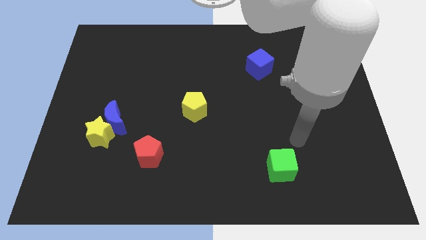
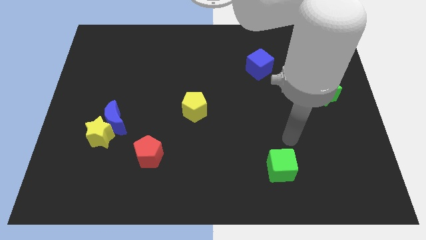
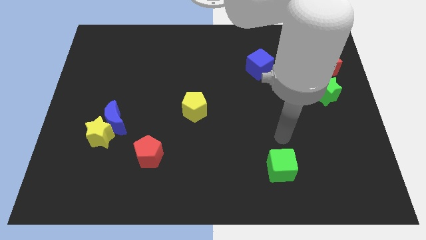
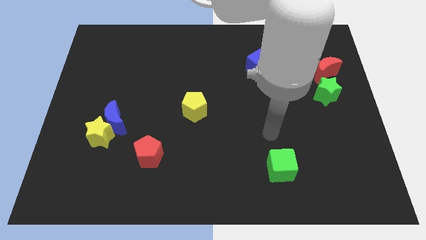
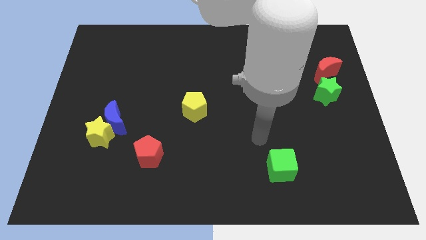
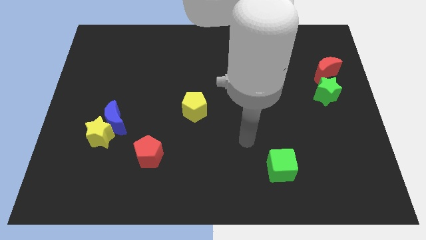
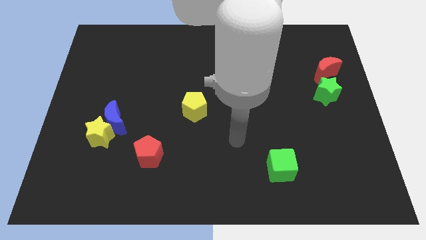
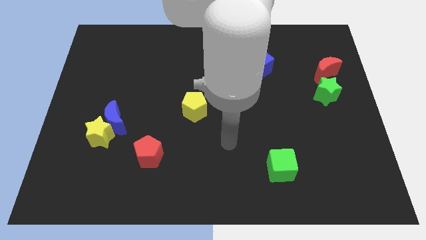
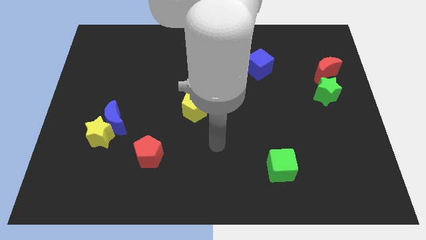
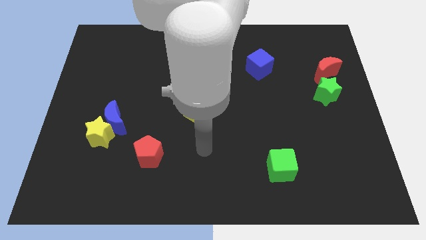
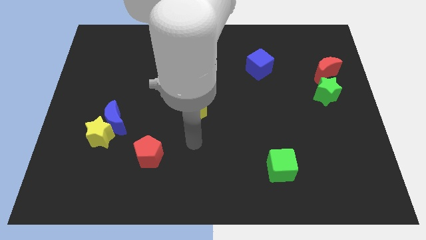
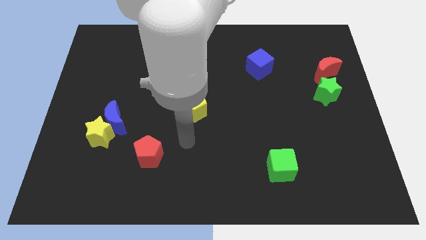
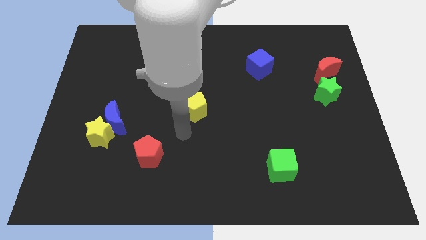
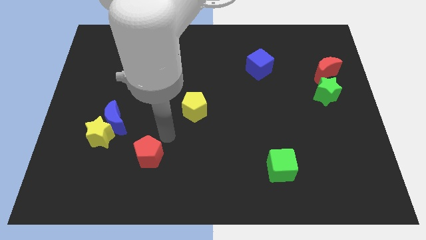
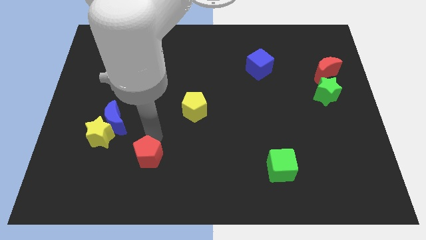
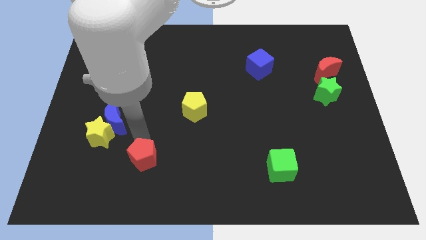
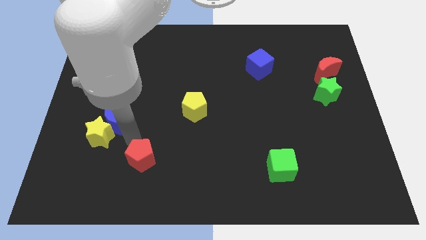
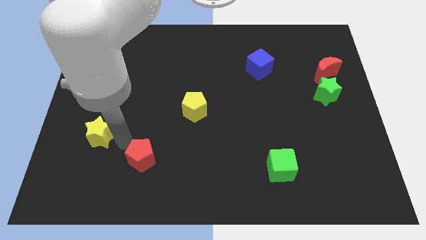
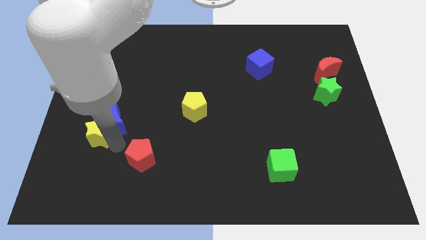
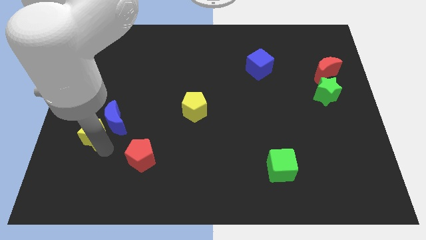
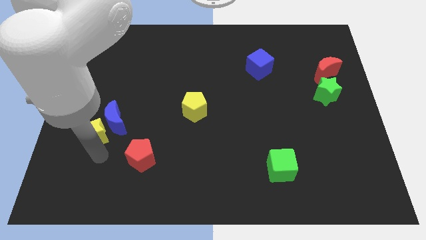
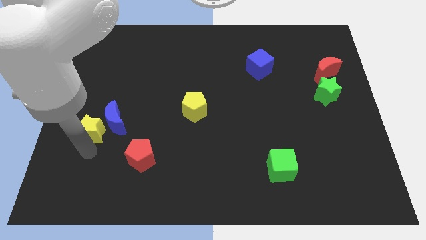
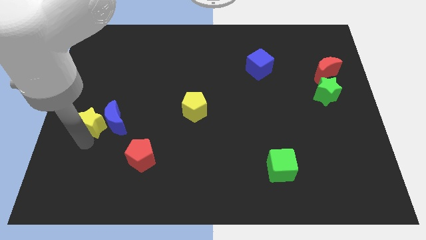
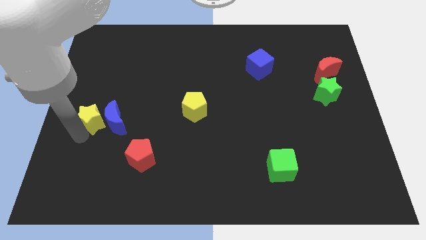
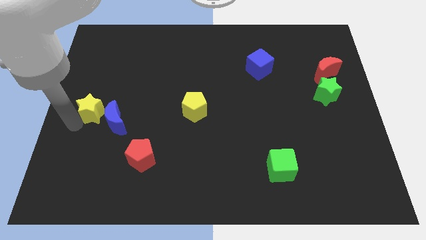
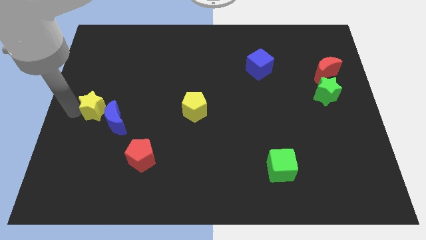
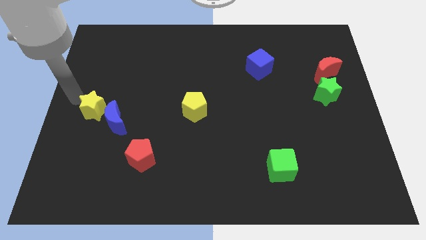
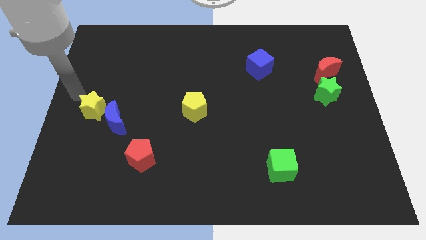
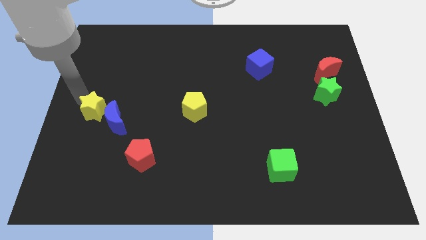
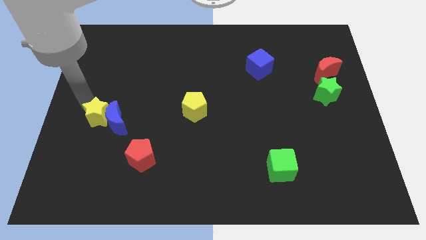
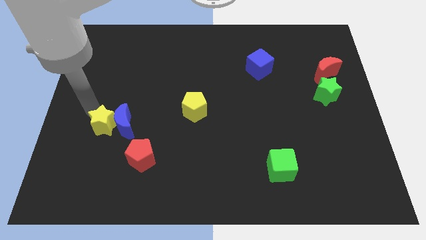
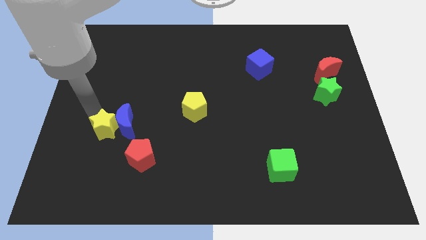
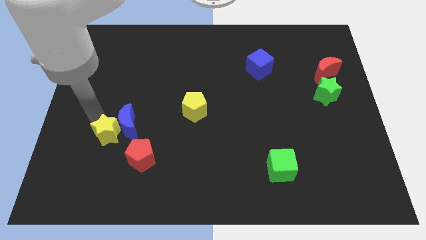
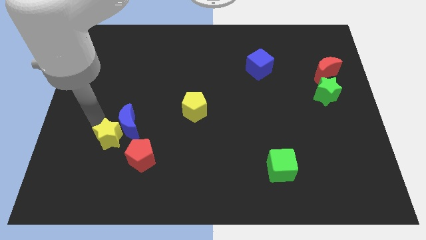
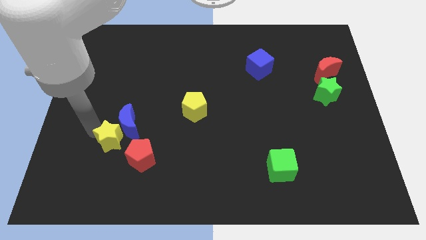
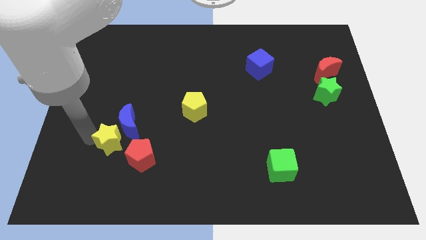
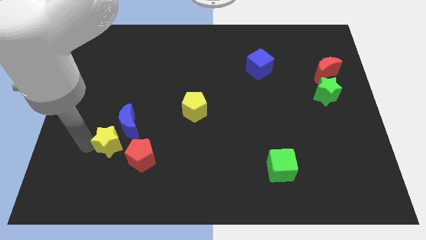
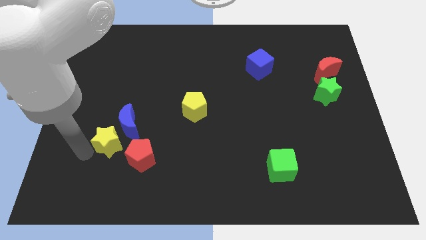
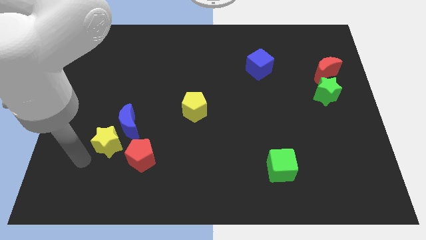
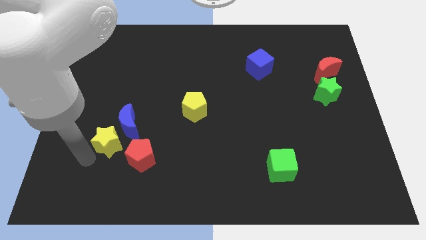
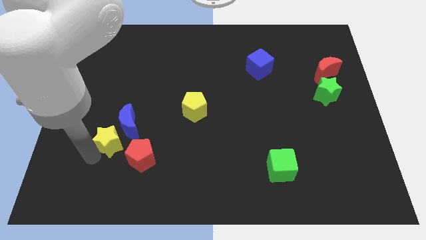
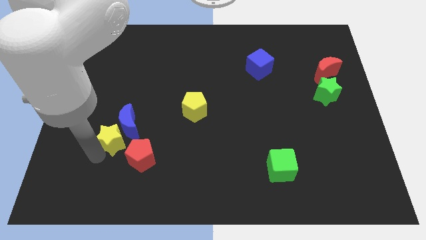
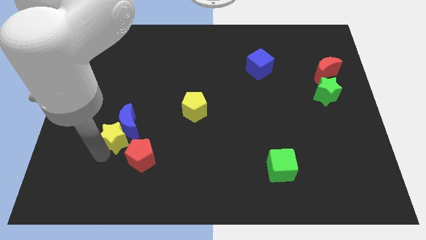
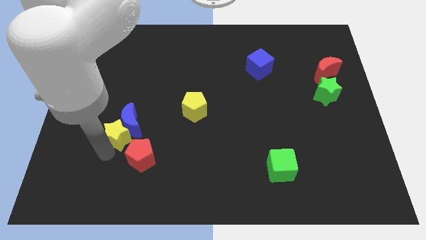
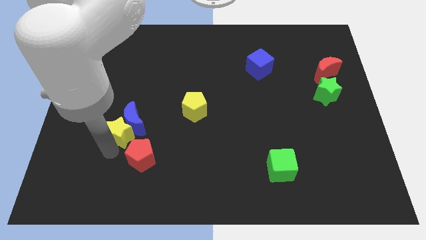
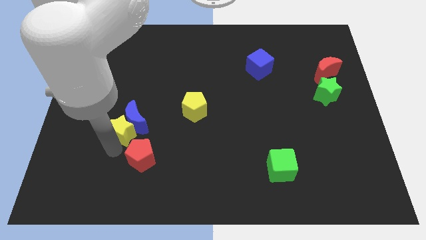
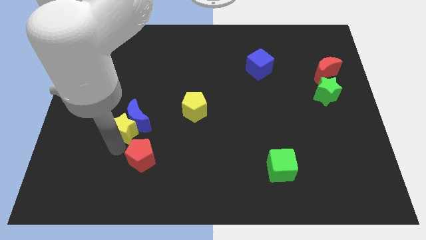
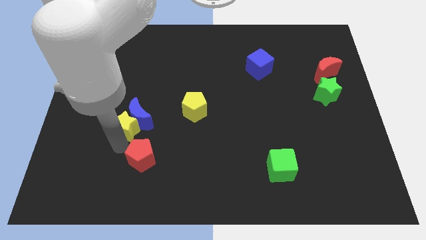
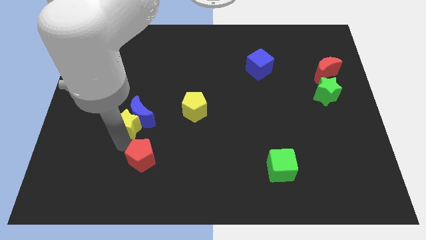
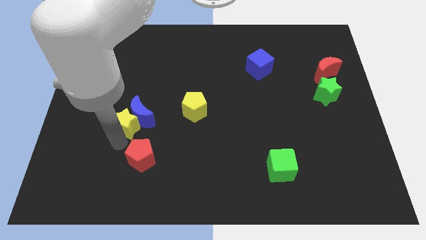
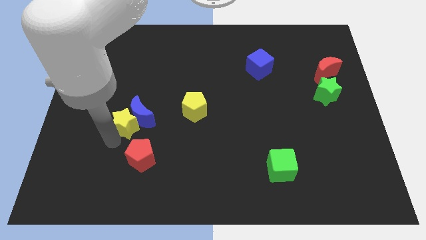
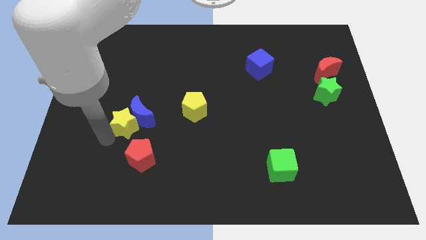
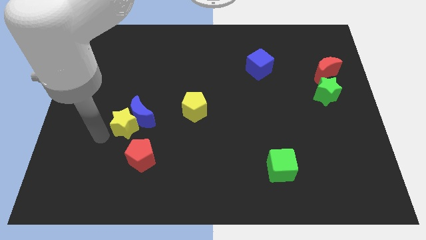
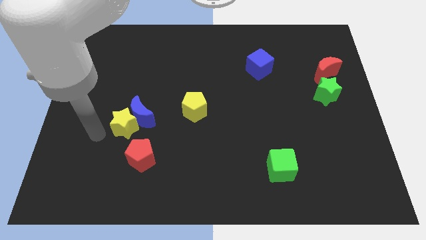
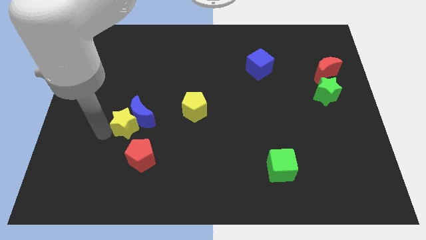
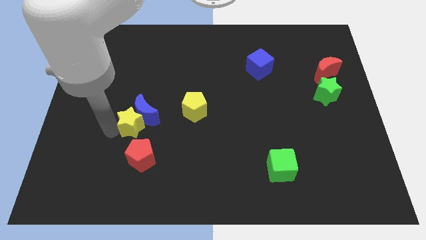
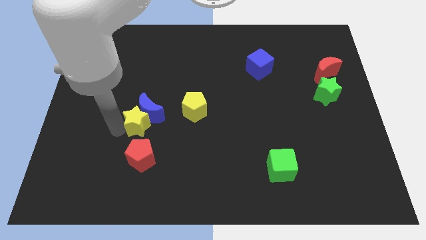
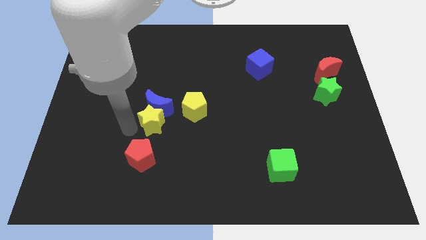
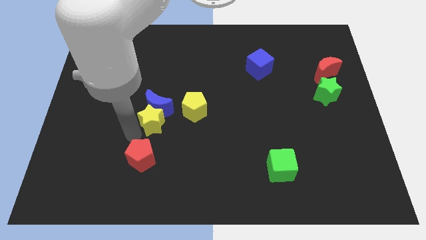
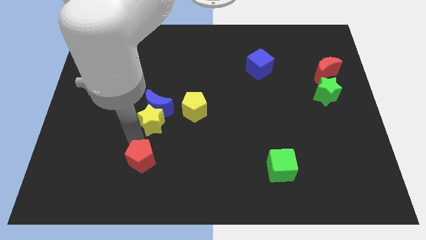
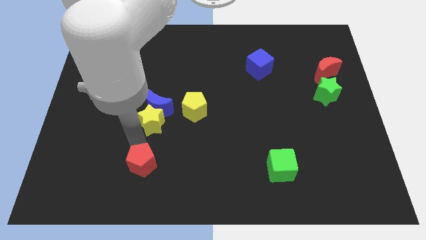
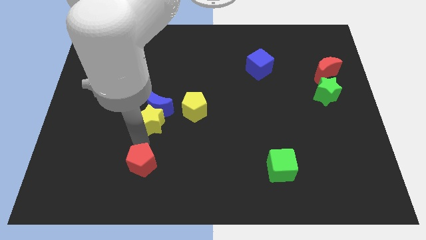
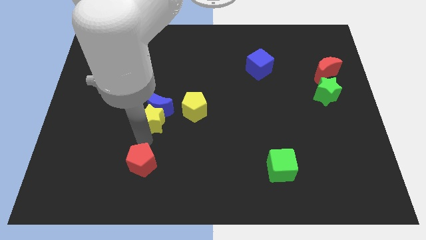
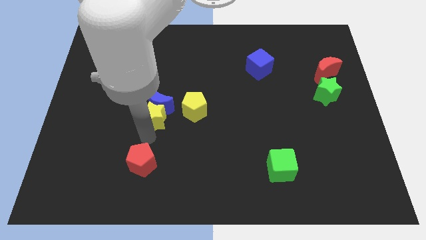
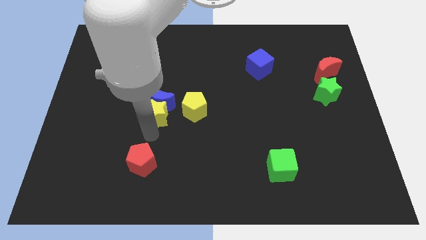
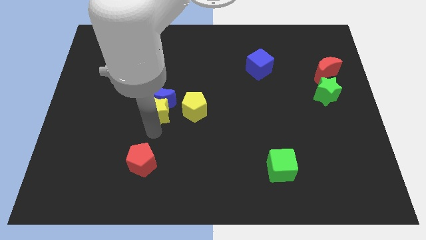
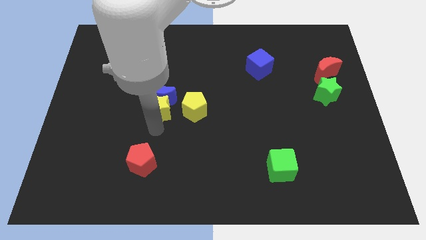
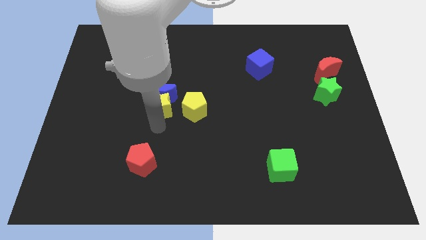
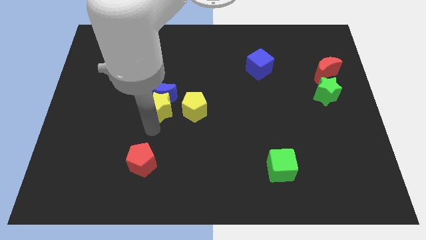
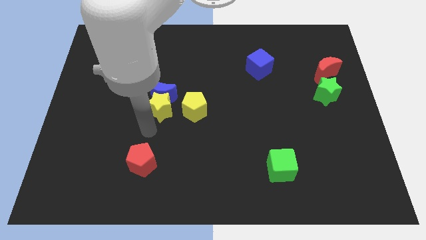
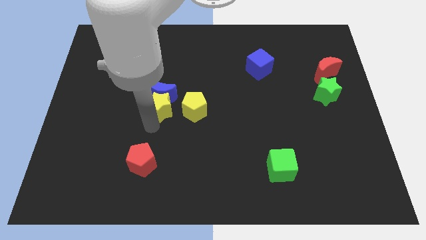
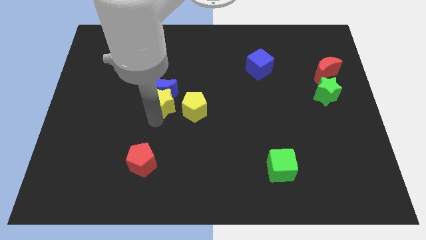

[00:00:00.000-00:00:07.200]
put the yellow star to the top left of the yellow pentagon
